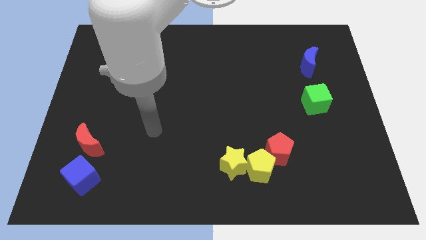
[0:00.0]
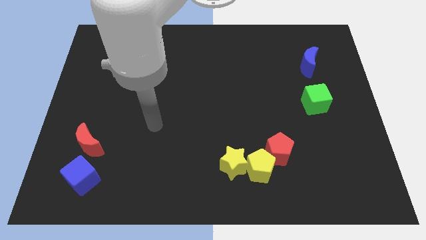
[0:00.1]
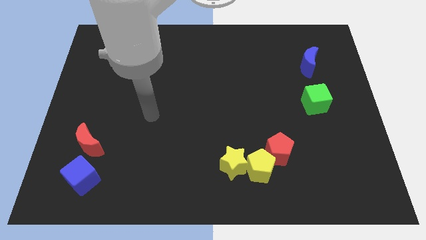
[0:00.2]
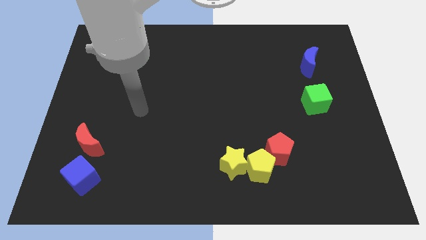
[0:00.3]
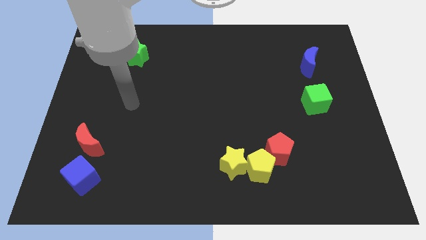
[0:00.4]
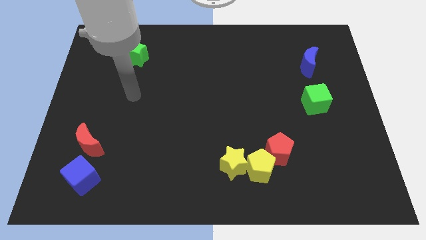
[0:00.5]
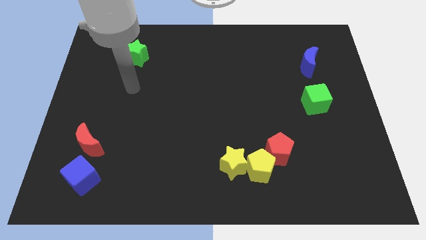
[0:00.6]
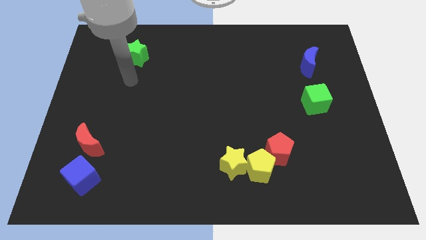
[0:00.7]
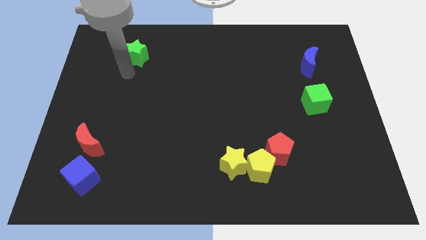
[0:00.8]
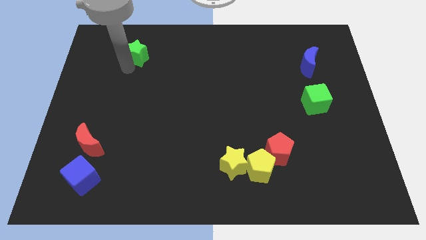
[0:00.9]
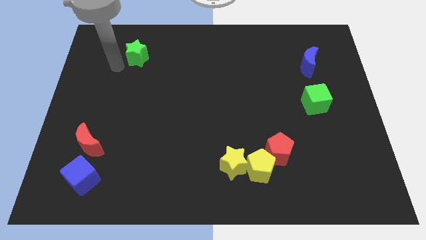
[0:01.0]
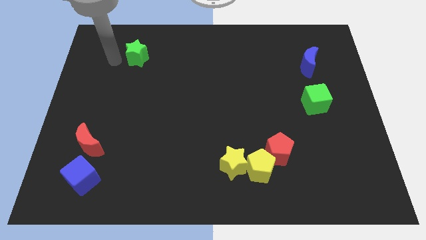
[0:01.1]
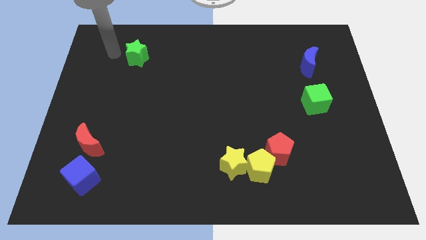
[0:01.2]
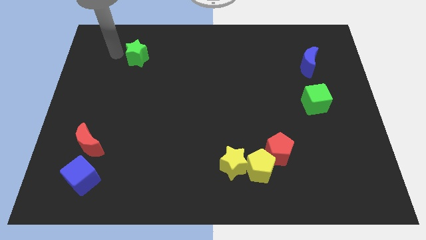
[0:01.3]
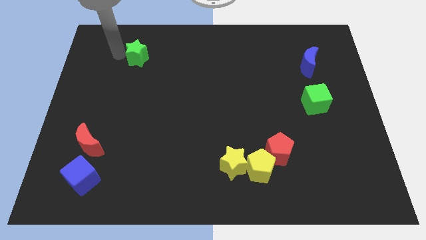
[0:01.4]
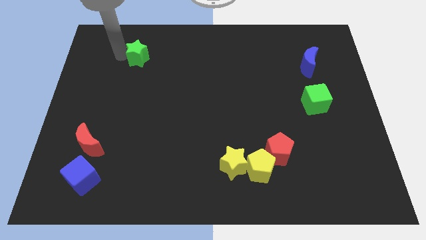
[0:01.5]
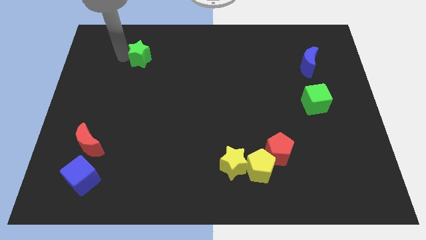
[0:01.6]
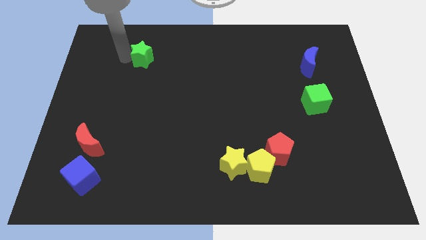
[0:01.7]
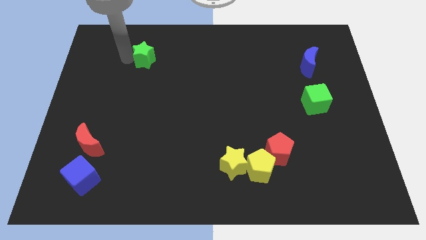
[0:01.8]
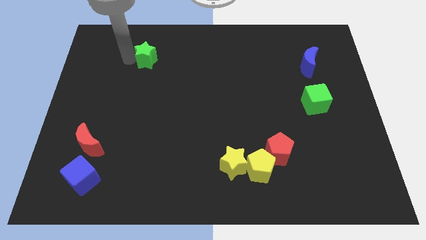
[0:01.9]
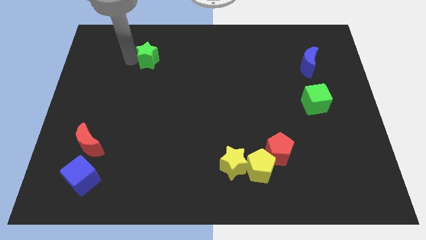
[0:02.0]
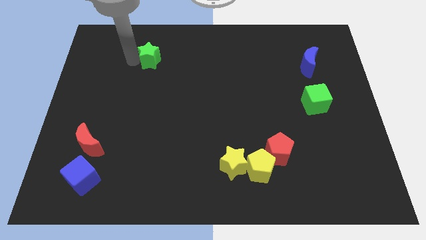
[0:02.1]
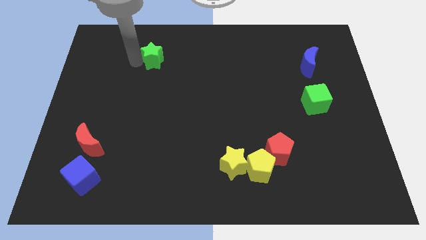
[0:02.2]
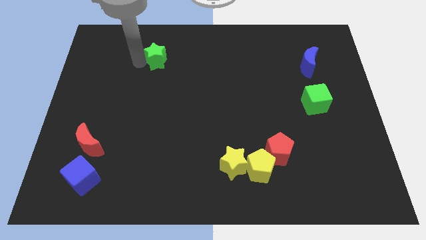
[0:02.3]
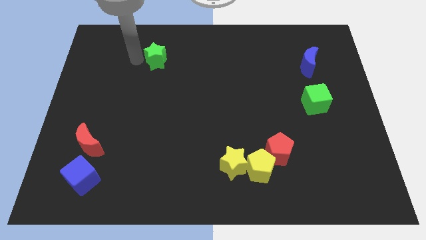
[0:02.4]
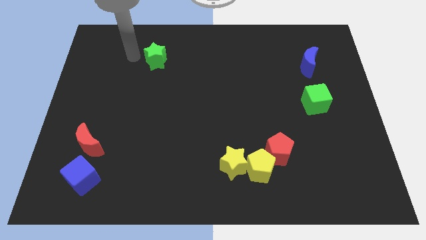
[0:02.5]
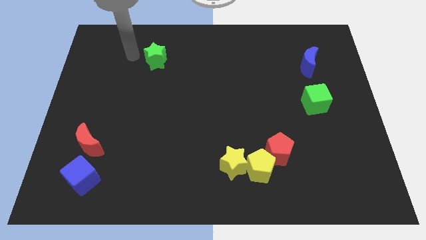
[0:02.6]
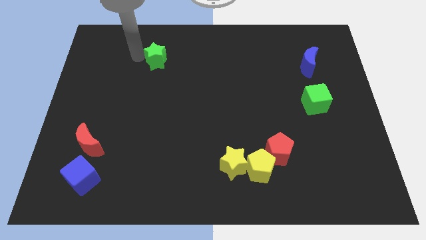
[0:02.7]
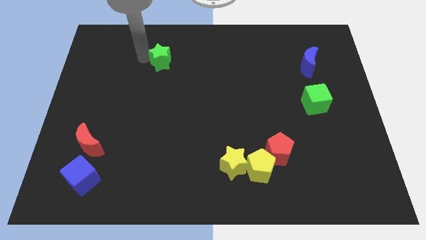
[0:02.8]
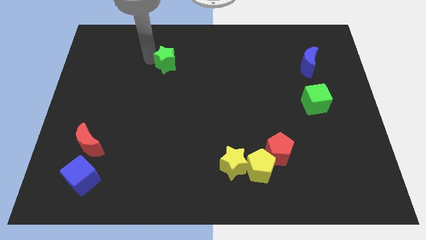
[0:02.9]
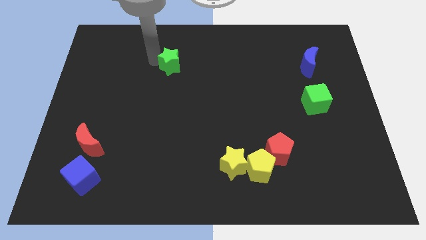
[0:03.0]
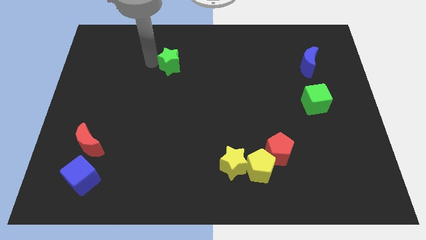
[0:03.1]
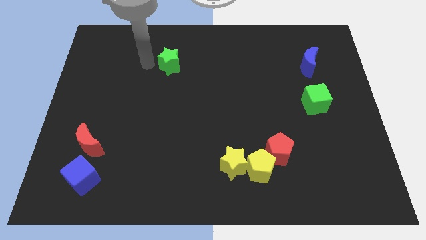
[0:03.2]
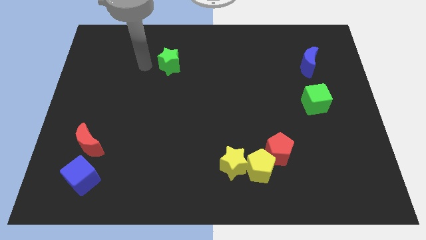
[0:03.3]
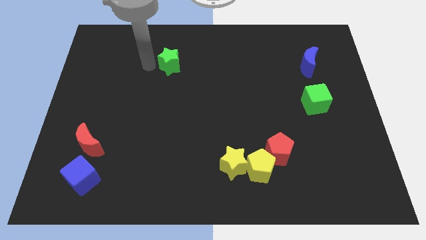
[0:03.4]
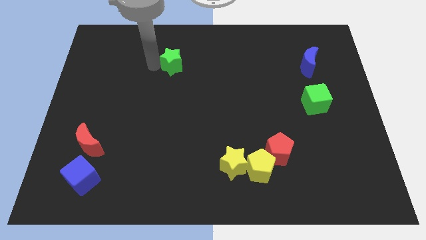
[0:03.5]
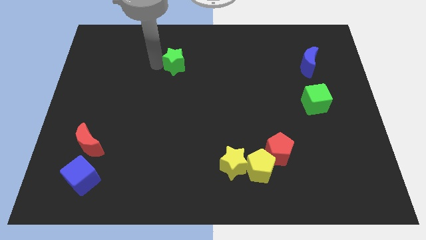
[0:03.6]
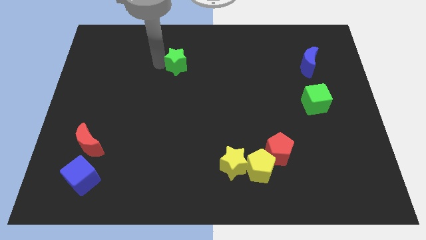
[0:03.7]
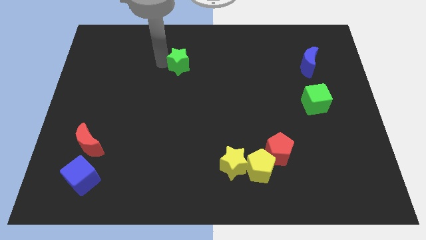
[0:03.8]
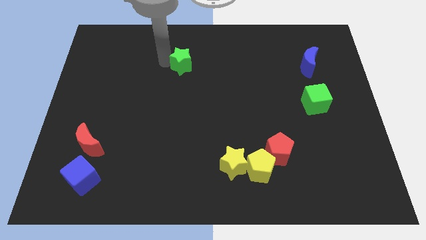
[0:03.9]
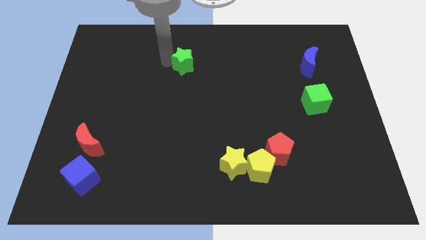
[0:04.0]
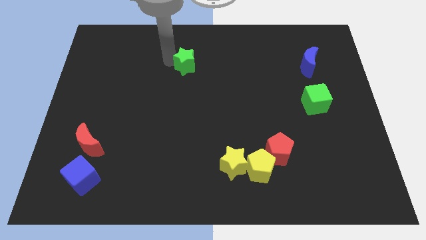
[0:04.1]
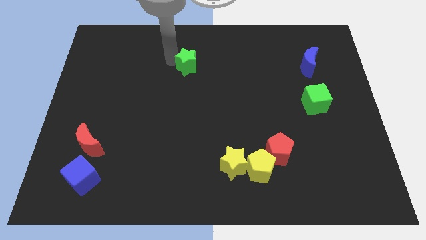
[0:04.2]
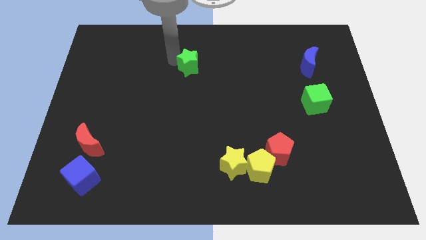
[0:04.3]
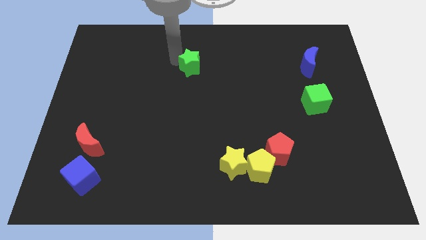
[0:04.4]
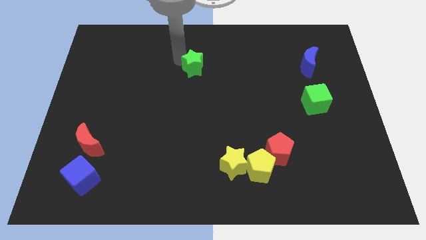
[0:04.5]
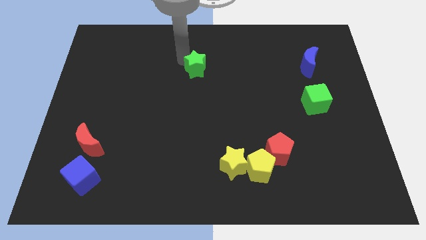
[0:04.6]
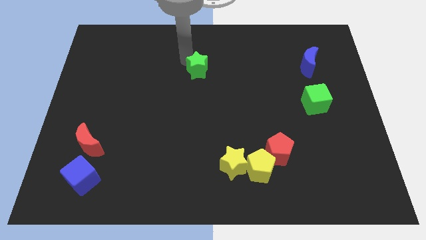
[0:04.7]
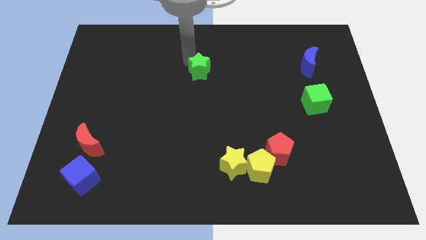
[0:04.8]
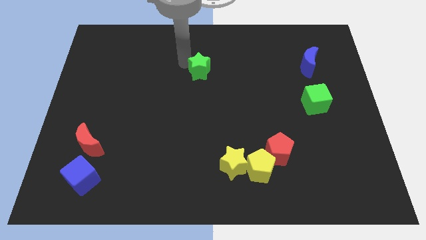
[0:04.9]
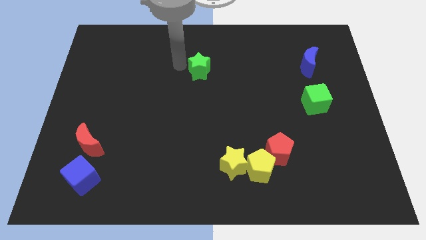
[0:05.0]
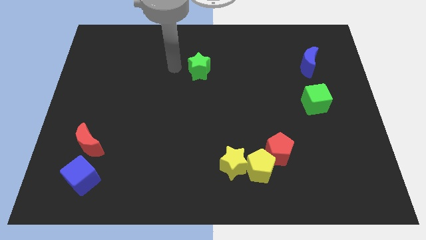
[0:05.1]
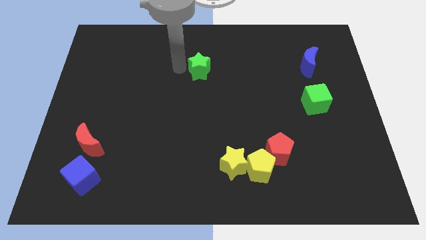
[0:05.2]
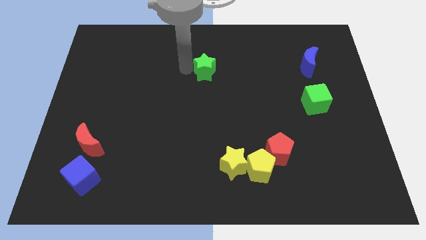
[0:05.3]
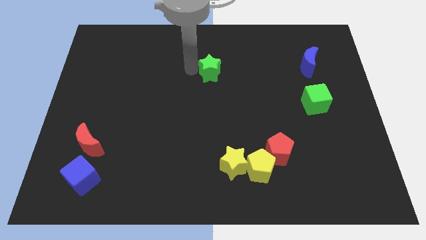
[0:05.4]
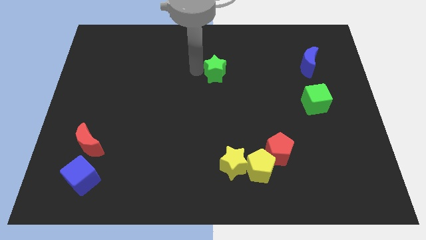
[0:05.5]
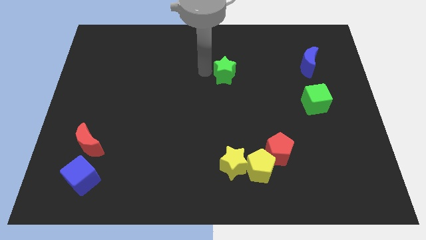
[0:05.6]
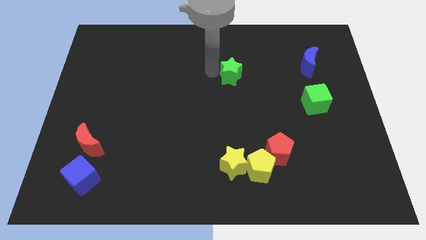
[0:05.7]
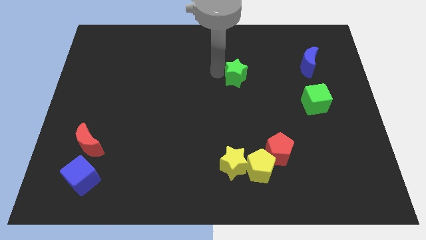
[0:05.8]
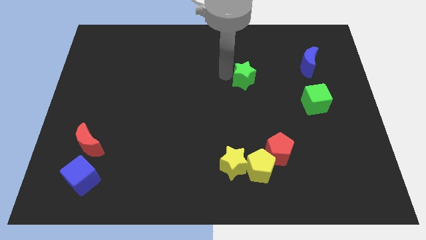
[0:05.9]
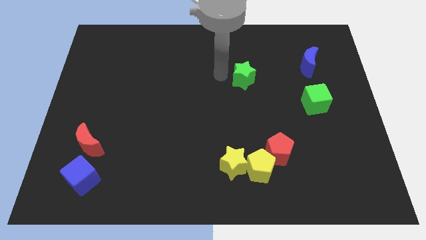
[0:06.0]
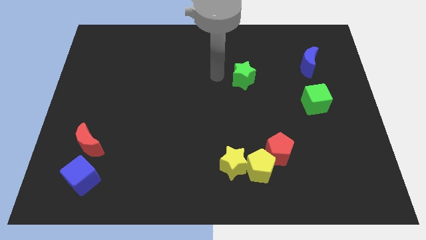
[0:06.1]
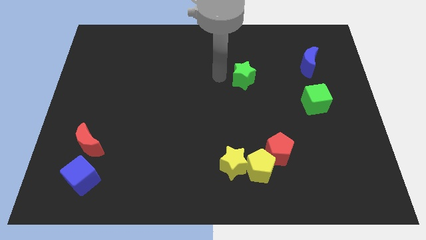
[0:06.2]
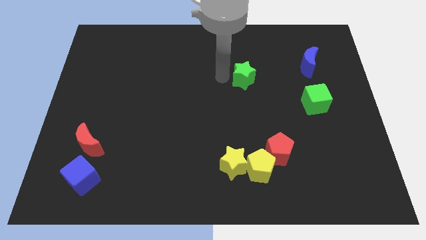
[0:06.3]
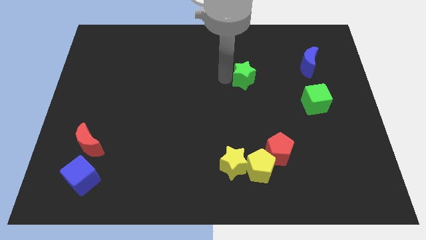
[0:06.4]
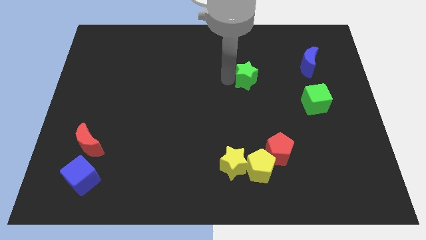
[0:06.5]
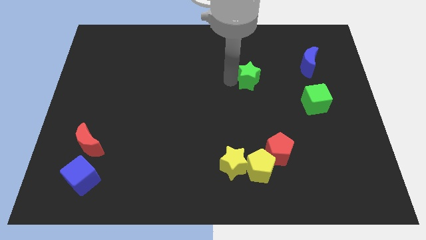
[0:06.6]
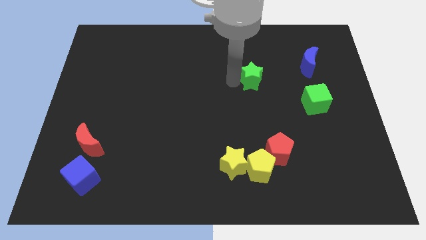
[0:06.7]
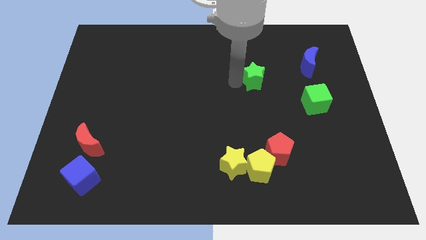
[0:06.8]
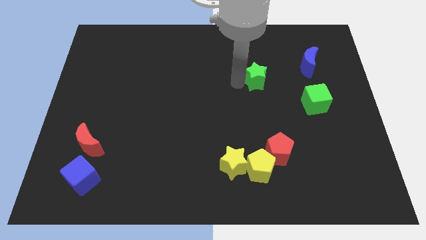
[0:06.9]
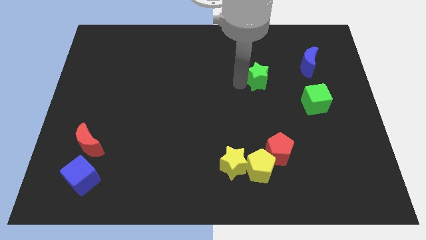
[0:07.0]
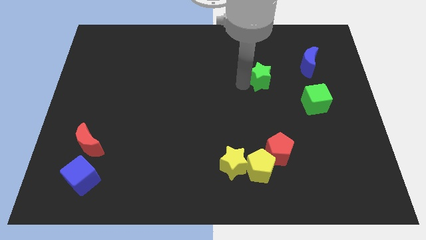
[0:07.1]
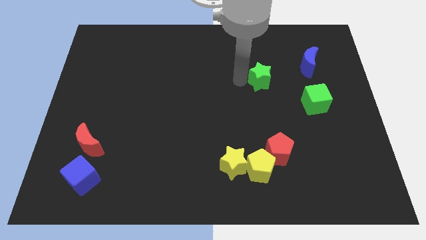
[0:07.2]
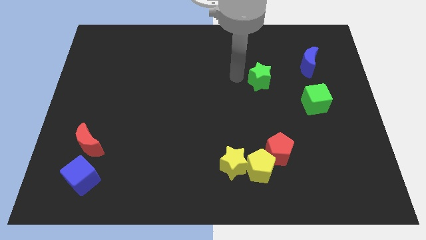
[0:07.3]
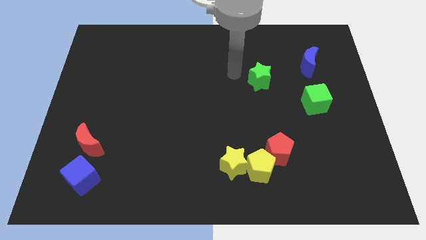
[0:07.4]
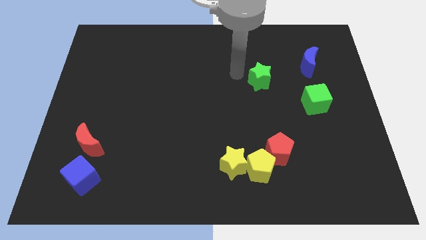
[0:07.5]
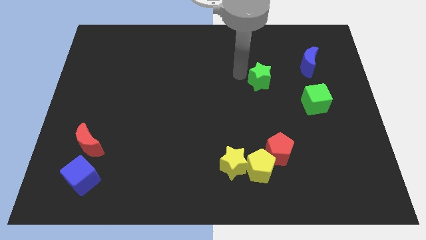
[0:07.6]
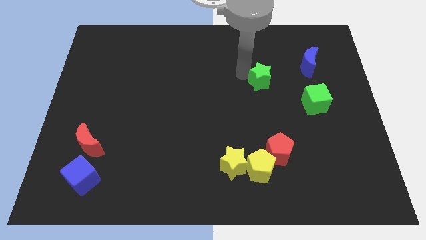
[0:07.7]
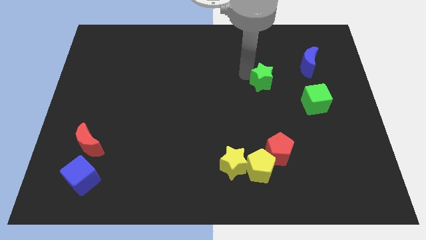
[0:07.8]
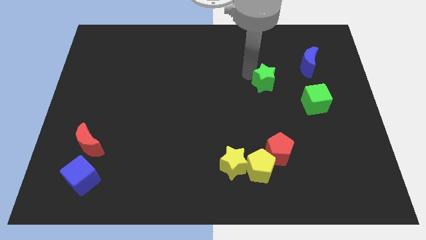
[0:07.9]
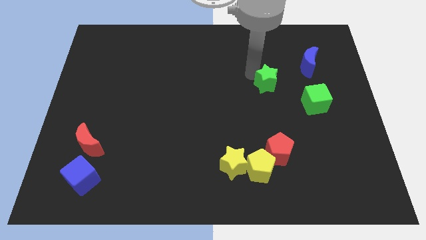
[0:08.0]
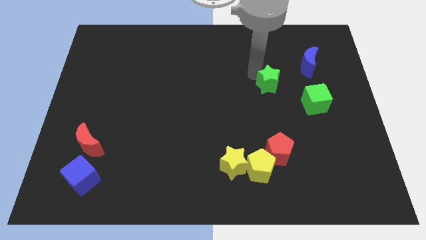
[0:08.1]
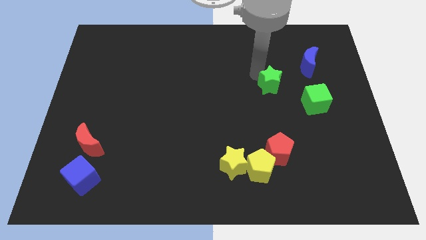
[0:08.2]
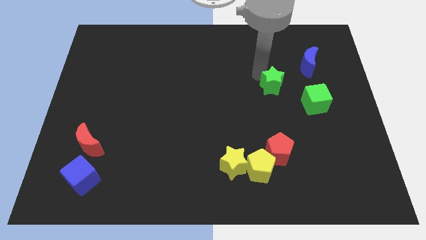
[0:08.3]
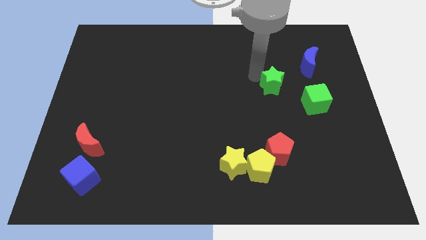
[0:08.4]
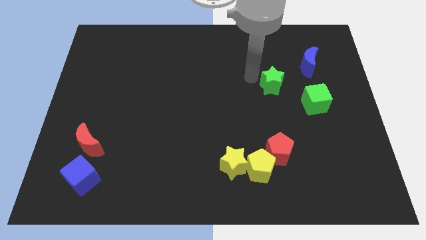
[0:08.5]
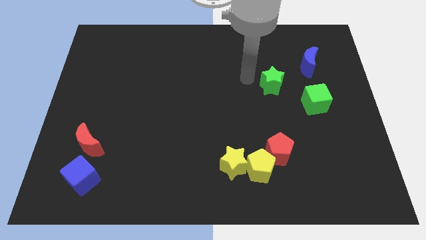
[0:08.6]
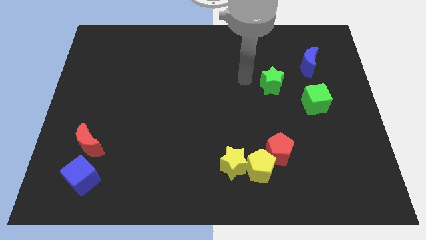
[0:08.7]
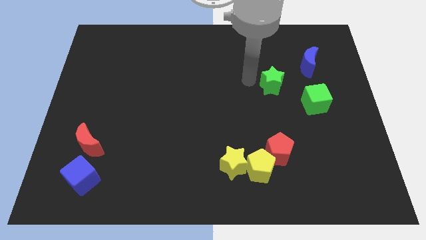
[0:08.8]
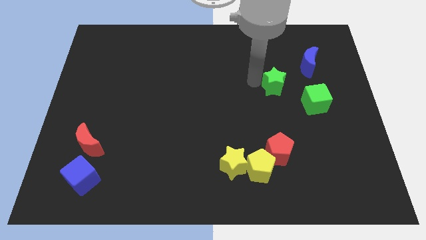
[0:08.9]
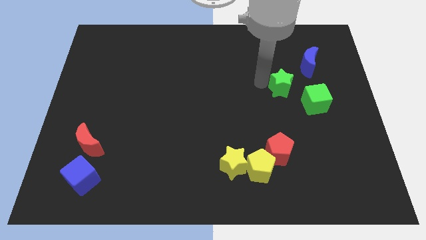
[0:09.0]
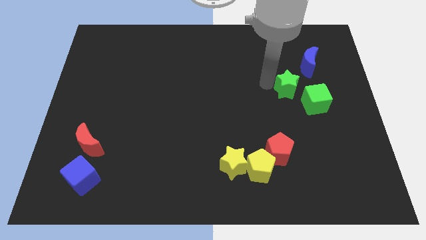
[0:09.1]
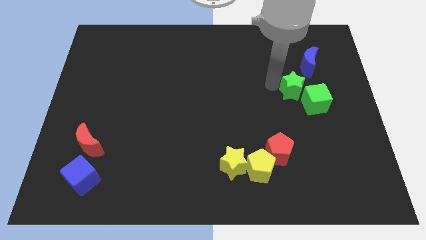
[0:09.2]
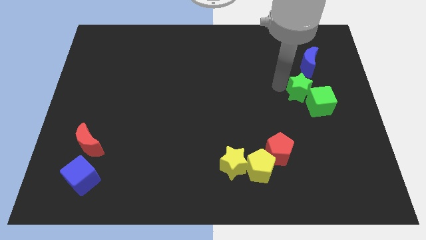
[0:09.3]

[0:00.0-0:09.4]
put the green star close to the green cube
